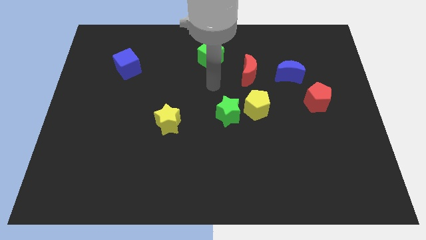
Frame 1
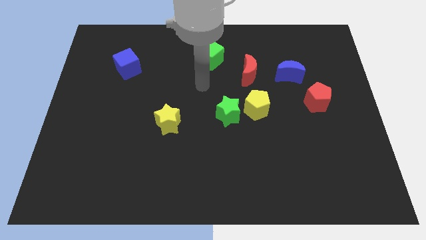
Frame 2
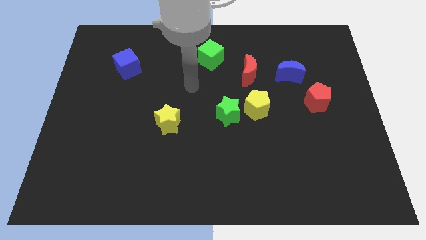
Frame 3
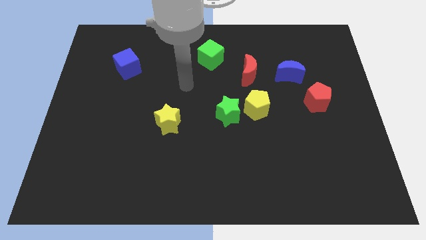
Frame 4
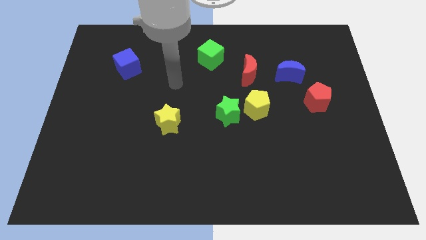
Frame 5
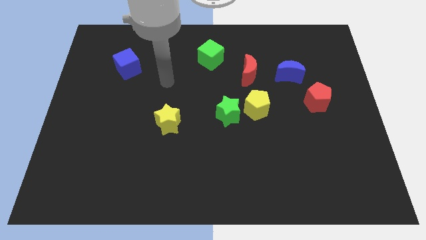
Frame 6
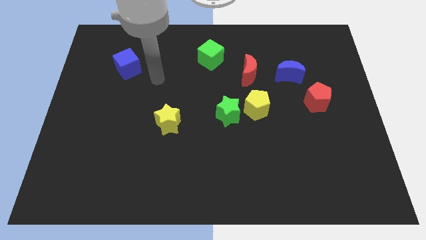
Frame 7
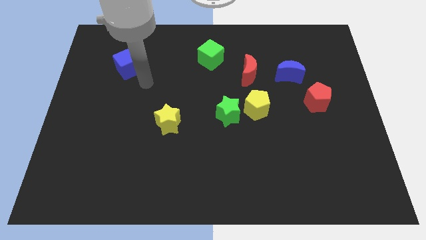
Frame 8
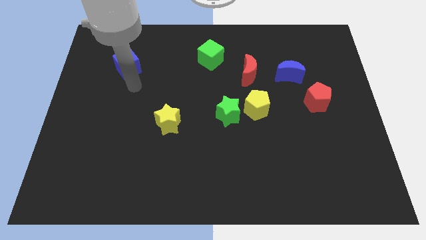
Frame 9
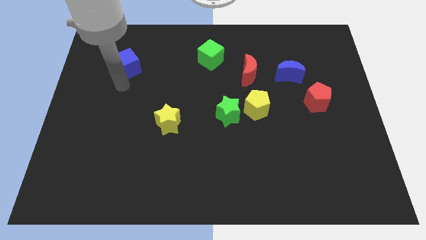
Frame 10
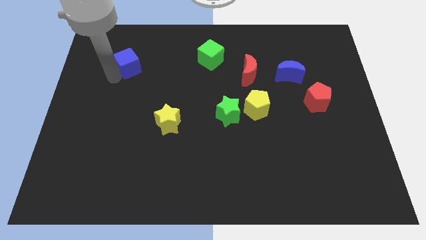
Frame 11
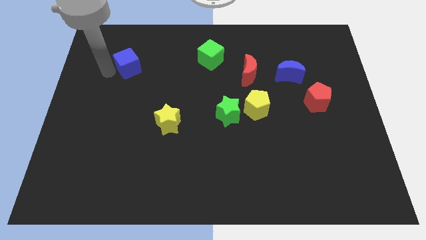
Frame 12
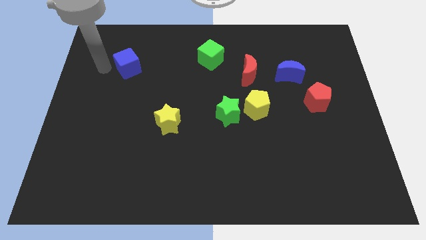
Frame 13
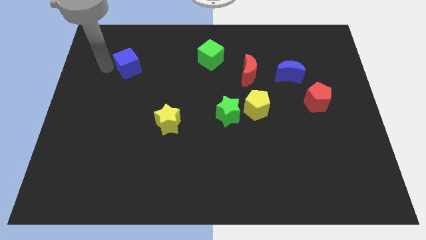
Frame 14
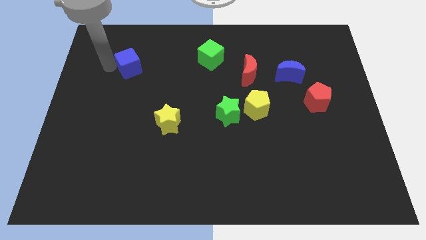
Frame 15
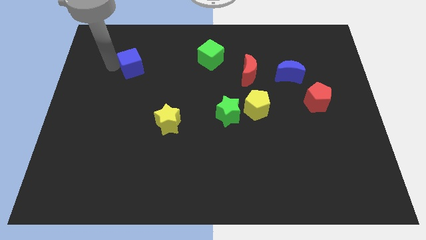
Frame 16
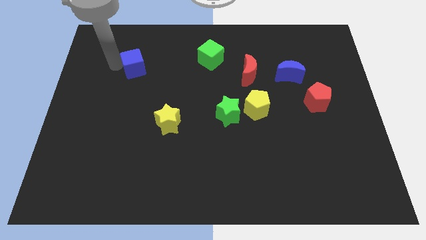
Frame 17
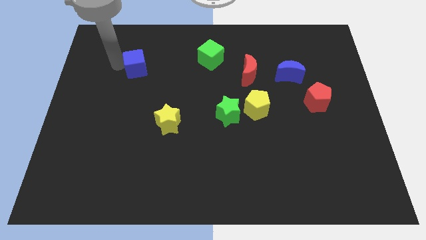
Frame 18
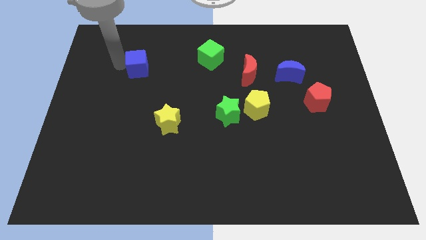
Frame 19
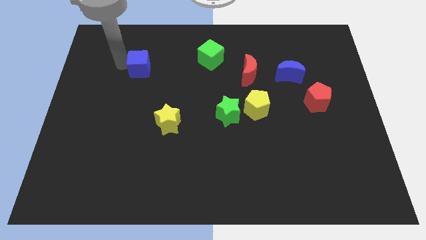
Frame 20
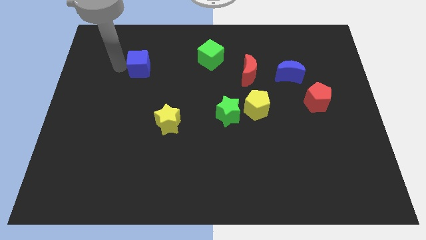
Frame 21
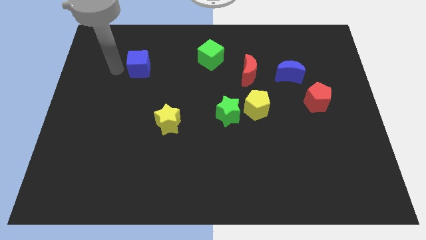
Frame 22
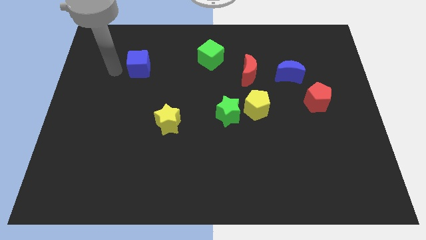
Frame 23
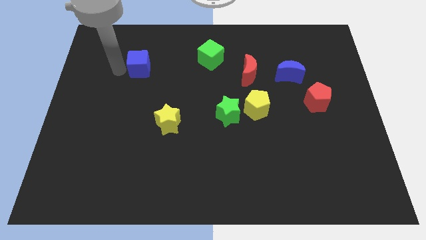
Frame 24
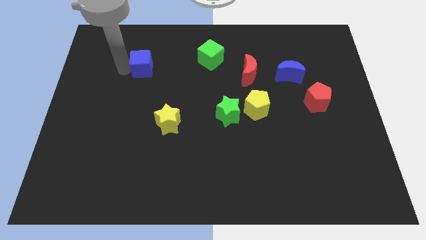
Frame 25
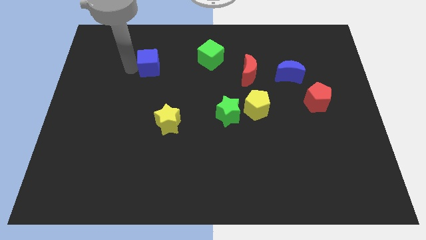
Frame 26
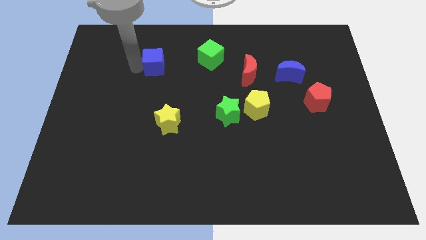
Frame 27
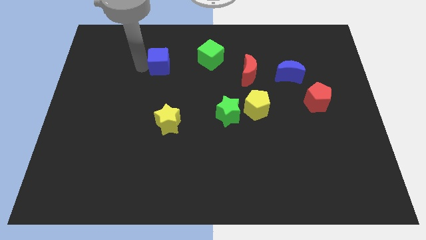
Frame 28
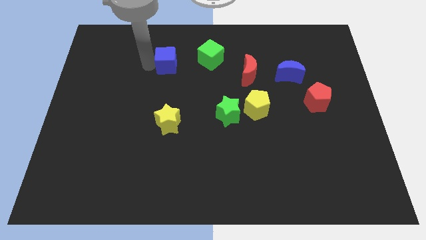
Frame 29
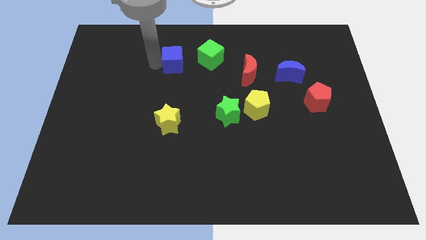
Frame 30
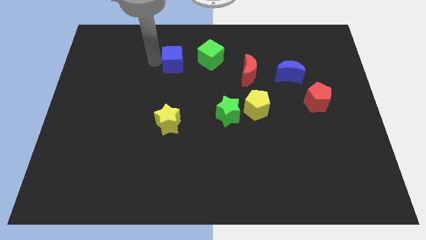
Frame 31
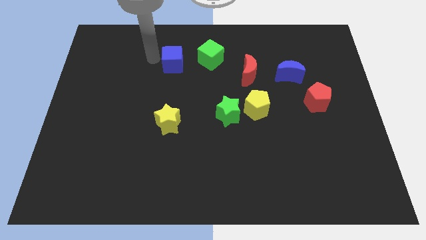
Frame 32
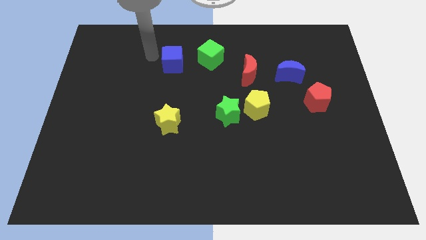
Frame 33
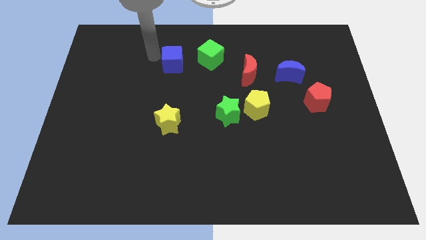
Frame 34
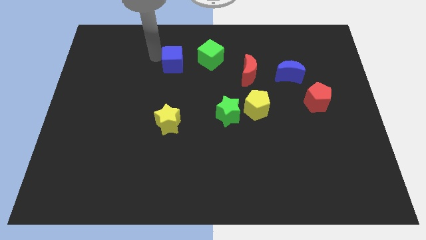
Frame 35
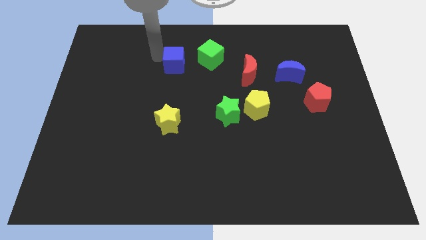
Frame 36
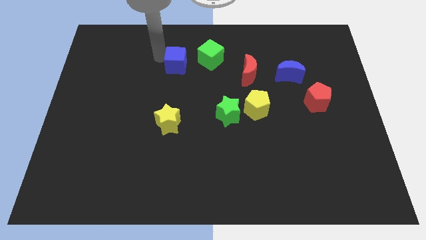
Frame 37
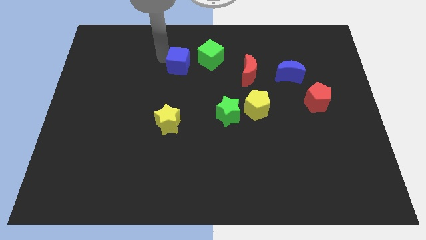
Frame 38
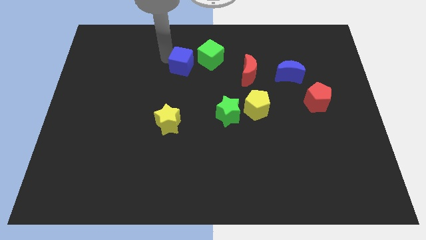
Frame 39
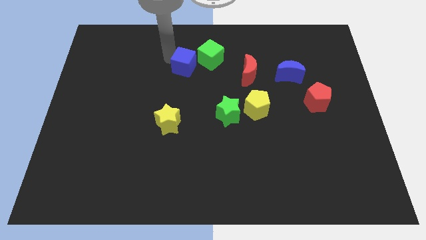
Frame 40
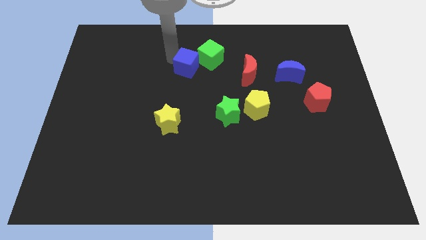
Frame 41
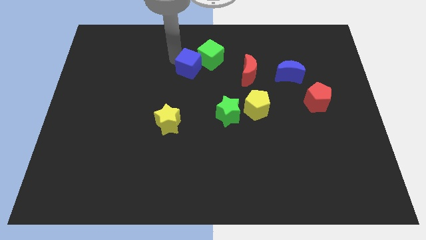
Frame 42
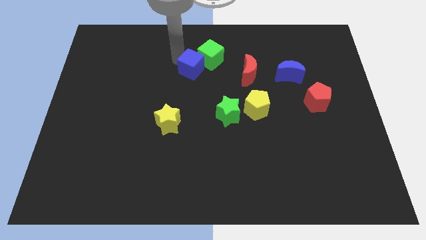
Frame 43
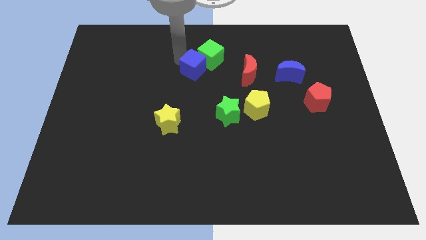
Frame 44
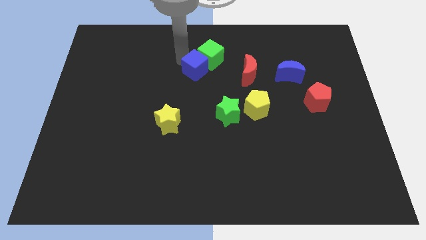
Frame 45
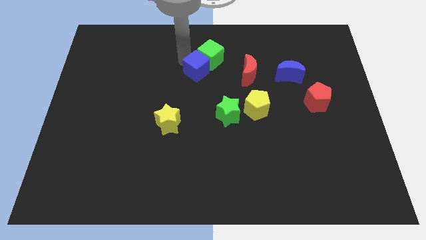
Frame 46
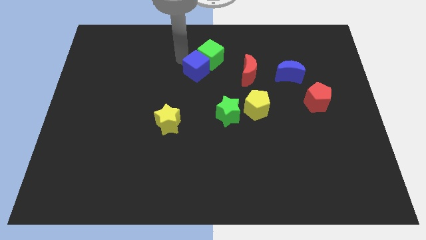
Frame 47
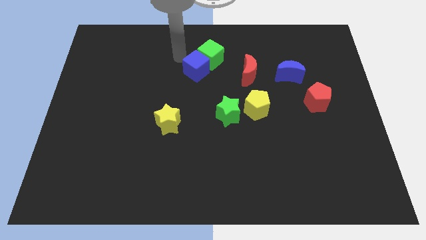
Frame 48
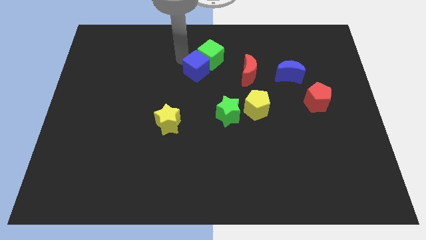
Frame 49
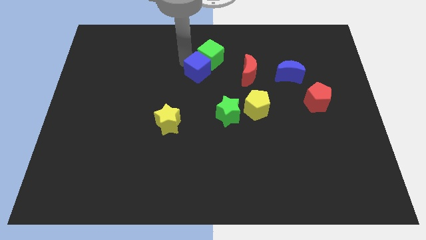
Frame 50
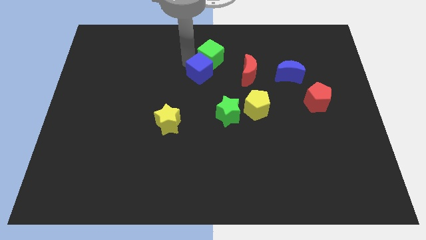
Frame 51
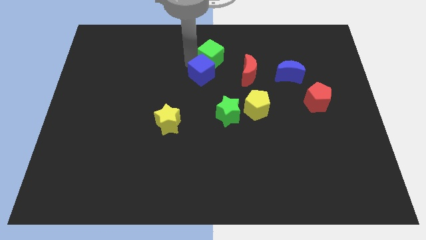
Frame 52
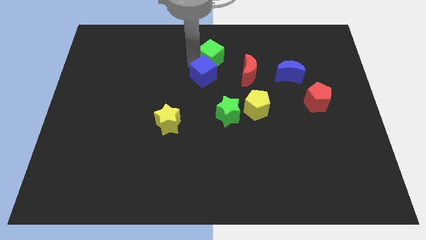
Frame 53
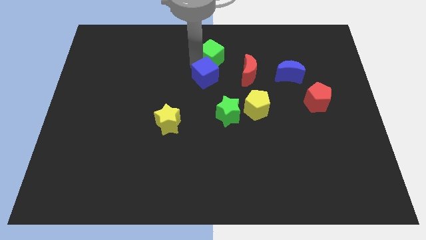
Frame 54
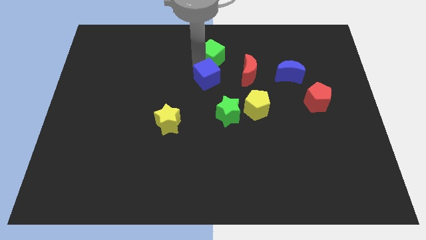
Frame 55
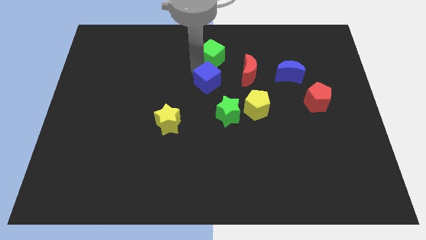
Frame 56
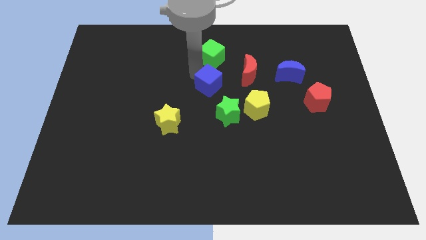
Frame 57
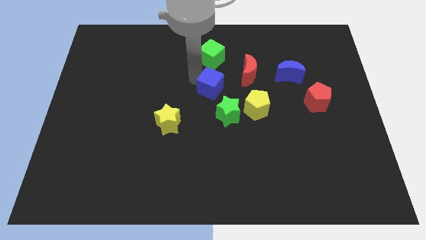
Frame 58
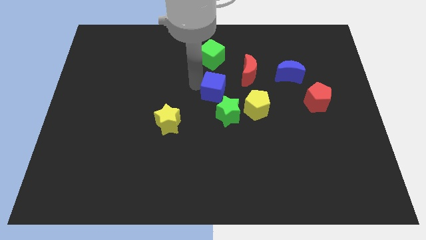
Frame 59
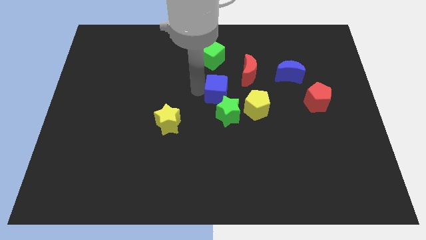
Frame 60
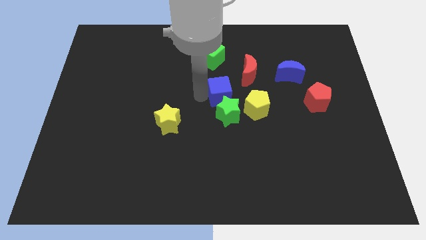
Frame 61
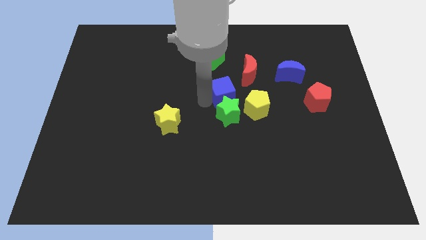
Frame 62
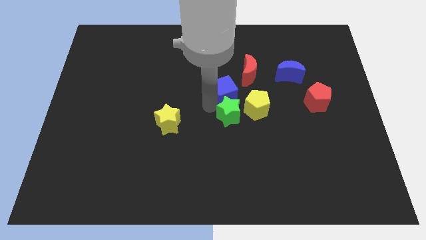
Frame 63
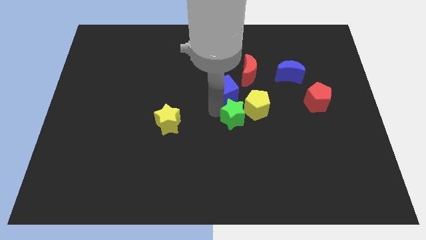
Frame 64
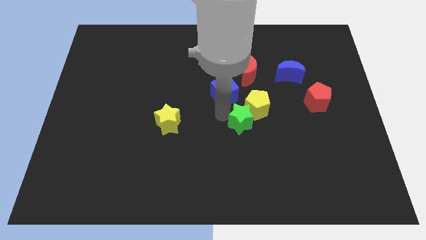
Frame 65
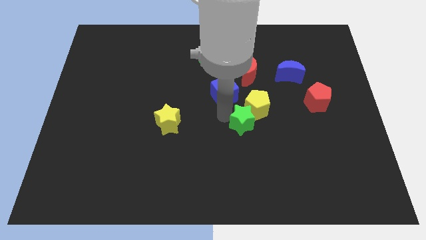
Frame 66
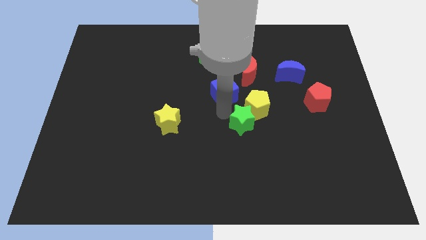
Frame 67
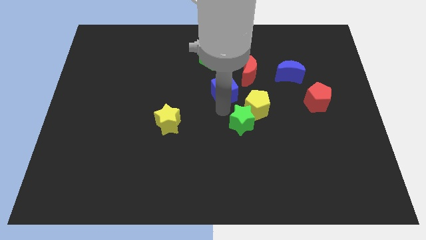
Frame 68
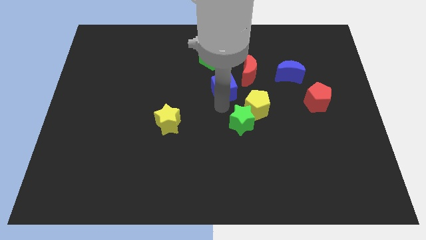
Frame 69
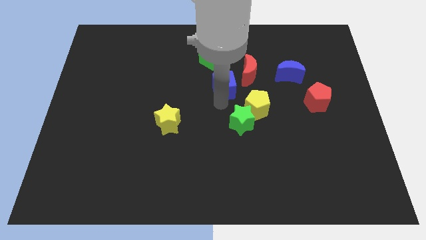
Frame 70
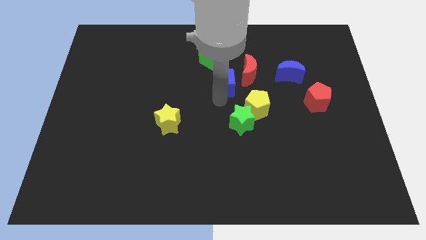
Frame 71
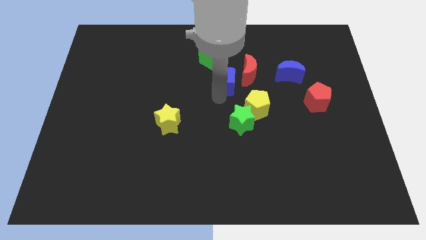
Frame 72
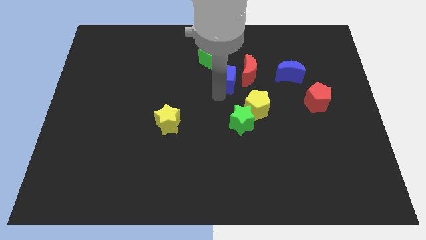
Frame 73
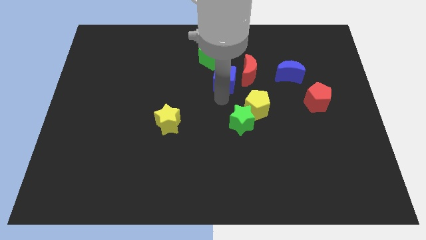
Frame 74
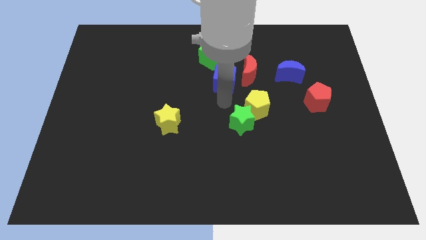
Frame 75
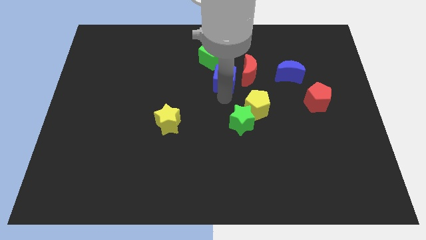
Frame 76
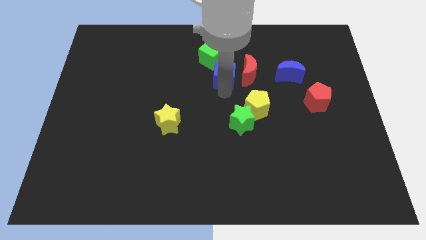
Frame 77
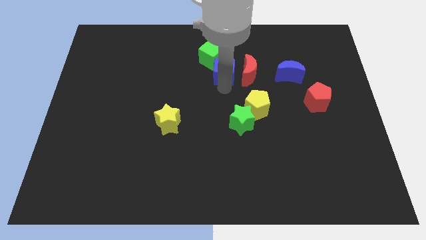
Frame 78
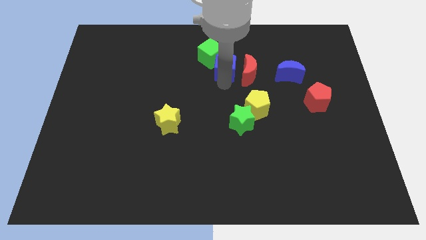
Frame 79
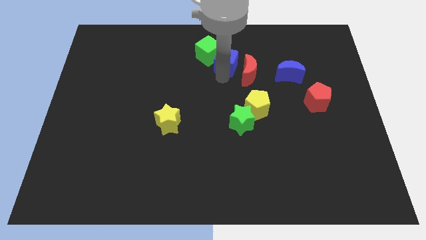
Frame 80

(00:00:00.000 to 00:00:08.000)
slide the blue cube to the right side of the green cube
